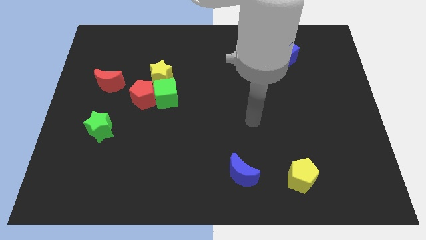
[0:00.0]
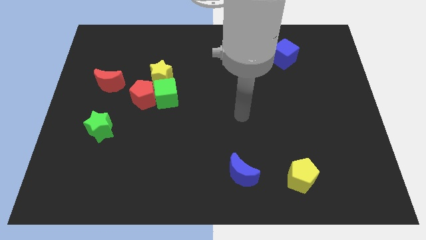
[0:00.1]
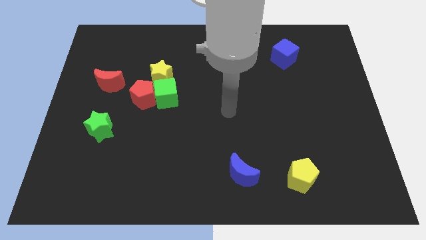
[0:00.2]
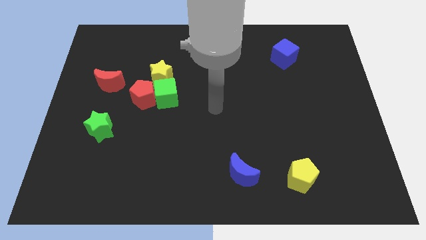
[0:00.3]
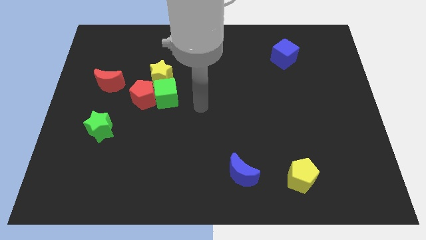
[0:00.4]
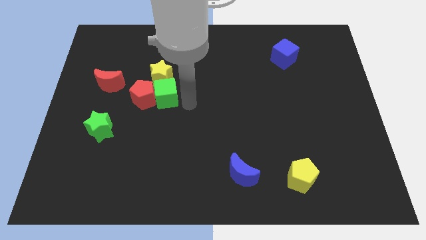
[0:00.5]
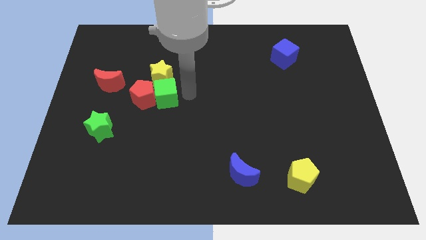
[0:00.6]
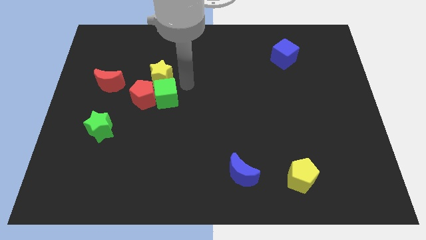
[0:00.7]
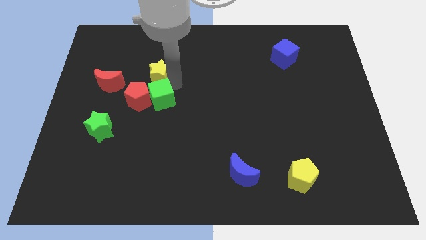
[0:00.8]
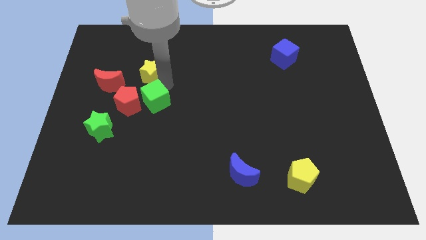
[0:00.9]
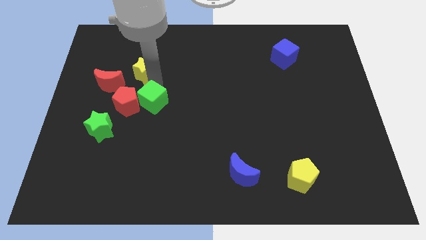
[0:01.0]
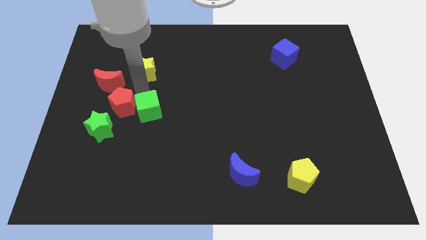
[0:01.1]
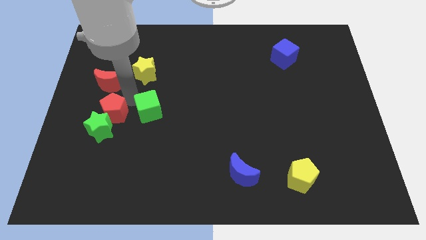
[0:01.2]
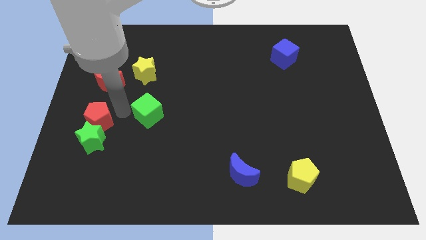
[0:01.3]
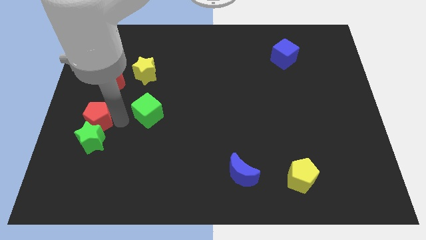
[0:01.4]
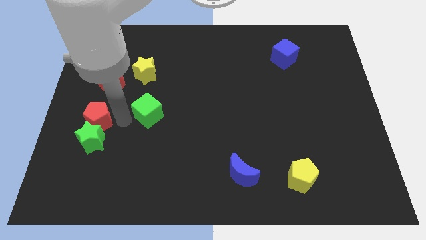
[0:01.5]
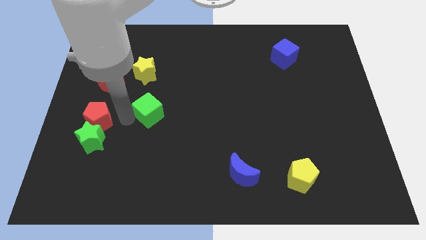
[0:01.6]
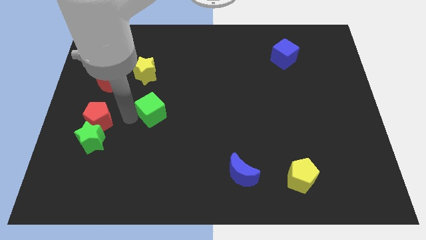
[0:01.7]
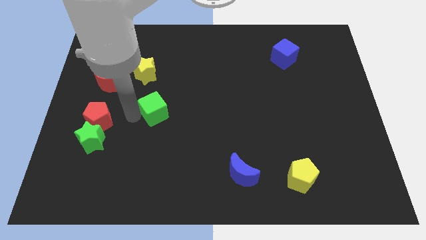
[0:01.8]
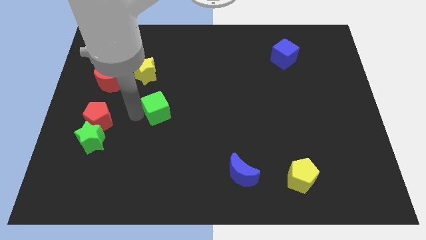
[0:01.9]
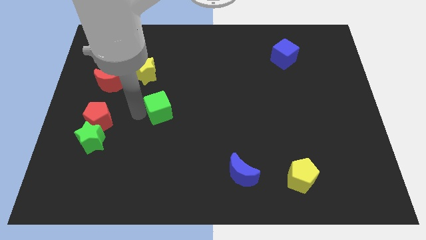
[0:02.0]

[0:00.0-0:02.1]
separate the green cube from the red pentagon and yellow star

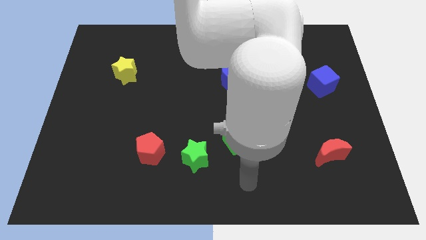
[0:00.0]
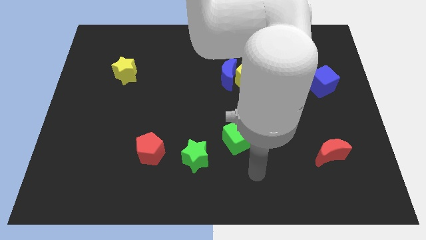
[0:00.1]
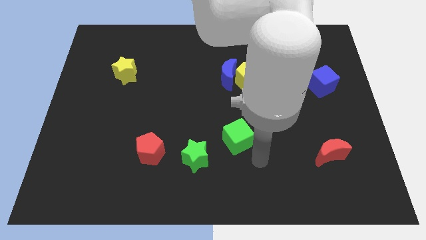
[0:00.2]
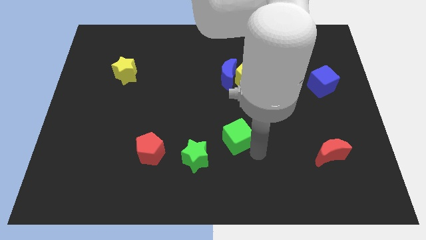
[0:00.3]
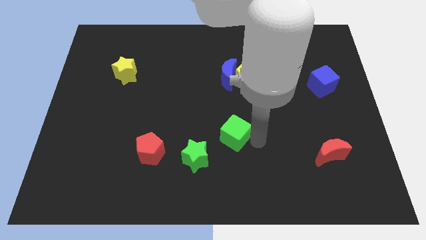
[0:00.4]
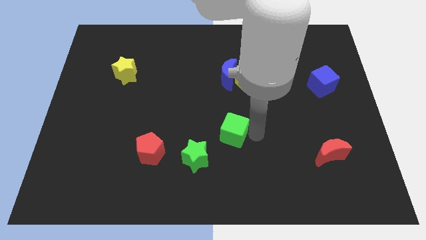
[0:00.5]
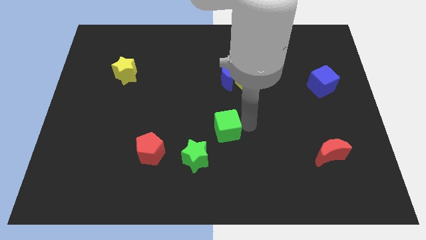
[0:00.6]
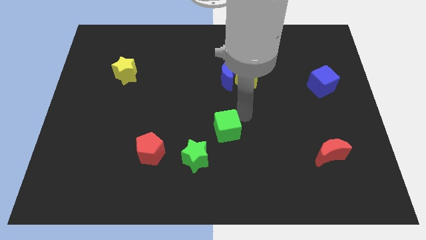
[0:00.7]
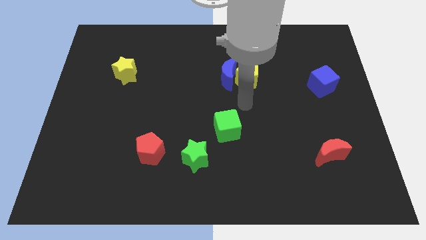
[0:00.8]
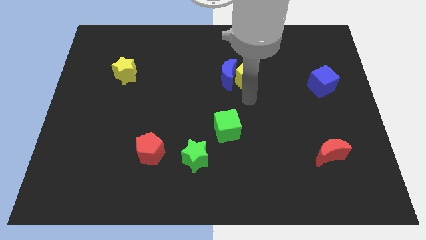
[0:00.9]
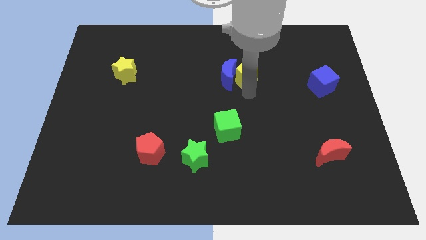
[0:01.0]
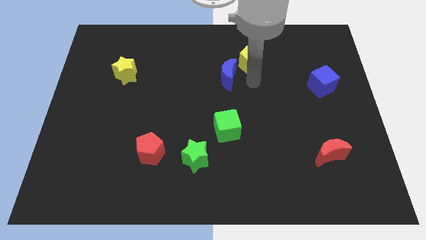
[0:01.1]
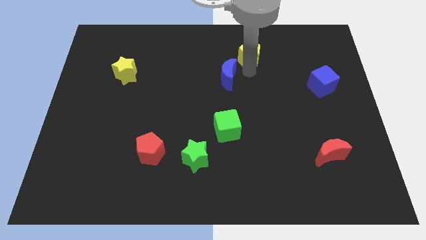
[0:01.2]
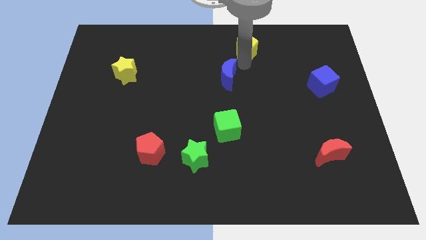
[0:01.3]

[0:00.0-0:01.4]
pull the blue moon apart from the yellow pentagon

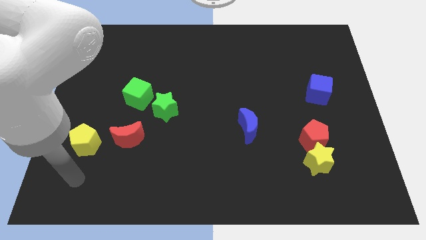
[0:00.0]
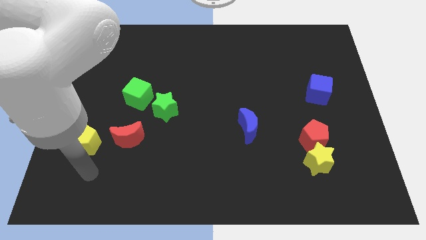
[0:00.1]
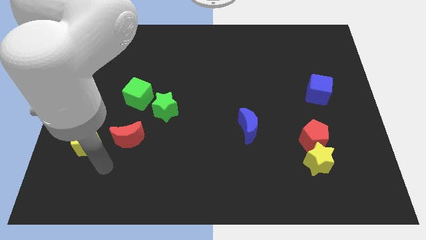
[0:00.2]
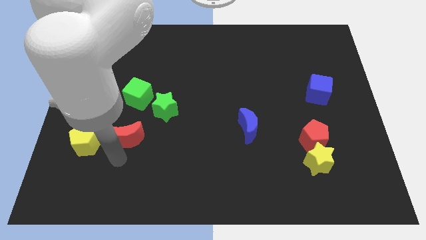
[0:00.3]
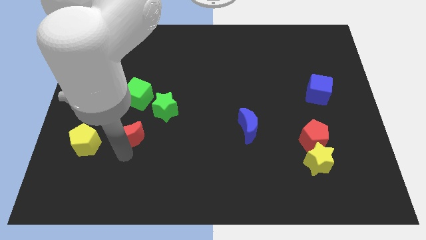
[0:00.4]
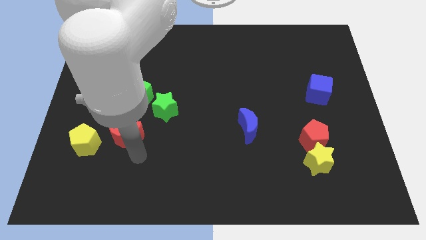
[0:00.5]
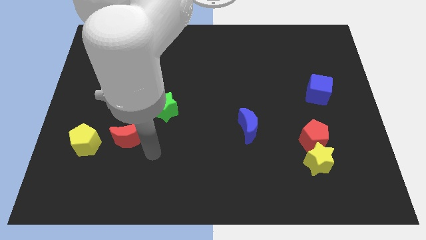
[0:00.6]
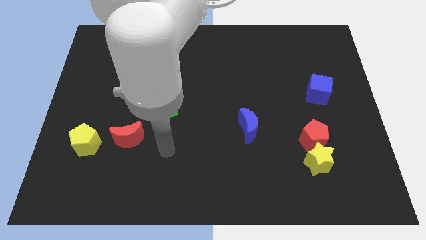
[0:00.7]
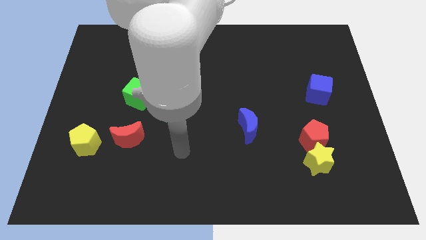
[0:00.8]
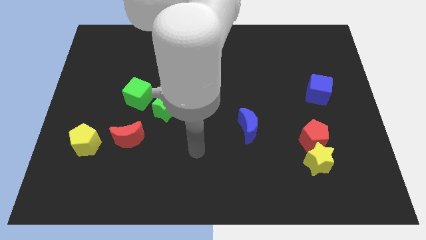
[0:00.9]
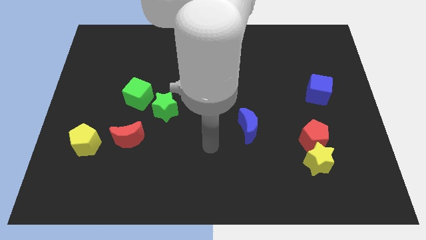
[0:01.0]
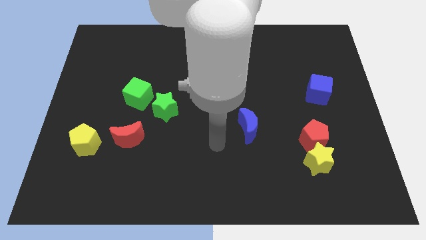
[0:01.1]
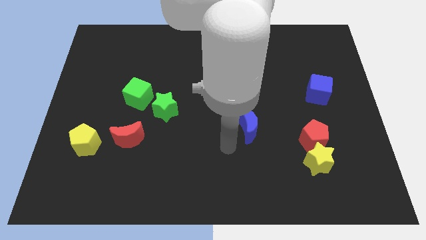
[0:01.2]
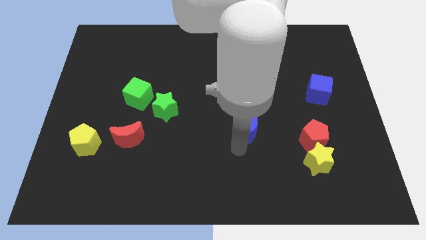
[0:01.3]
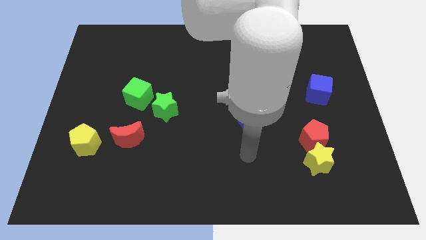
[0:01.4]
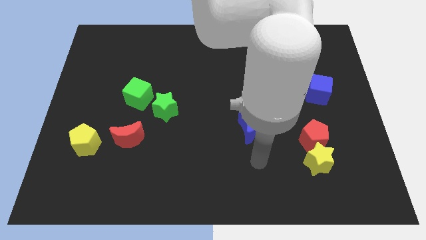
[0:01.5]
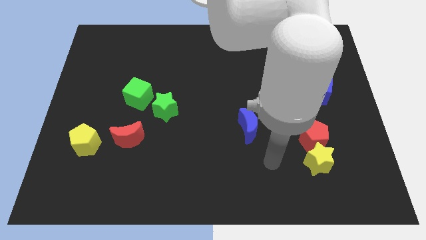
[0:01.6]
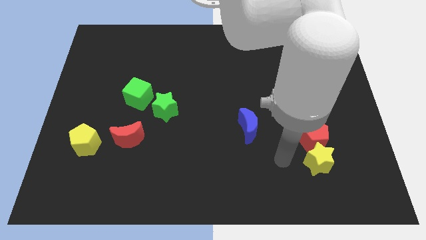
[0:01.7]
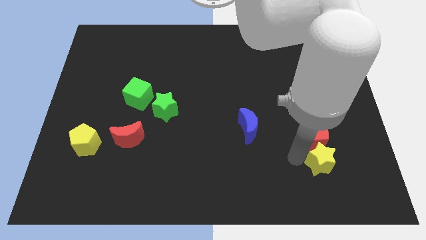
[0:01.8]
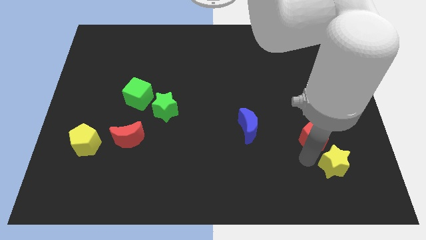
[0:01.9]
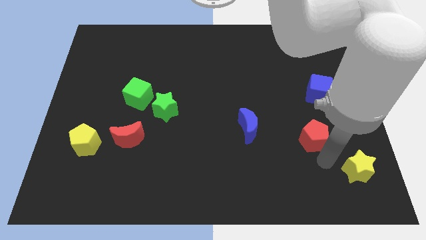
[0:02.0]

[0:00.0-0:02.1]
pull the red pentagon apart from the yellow star

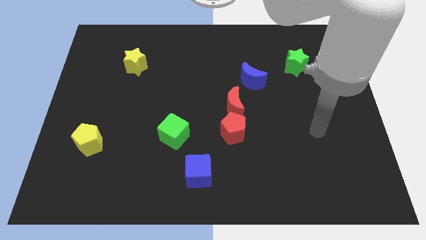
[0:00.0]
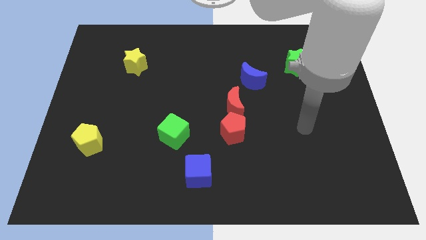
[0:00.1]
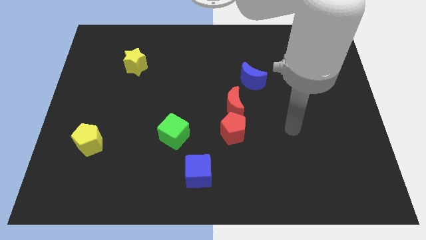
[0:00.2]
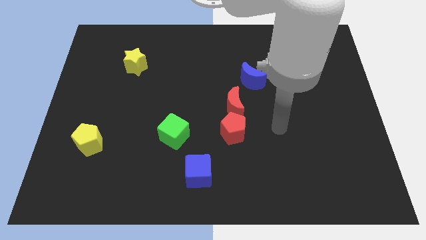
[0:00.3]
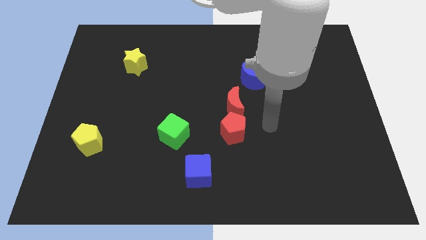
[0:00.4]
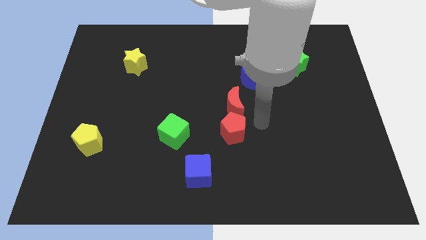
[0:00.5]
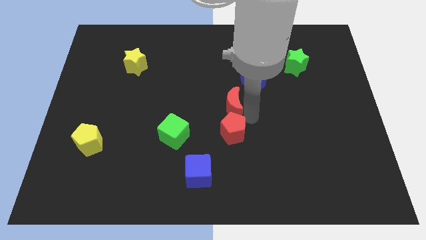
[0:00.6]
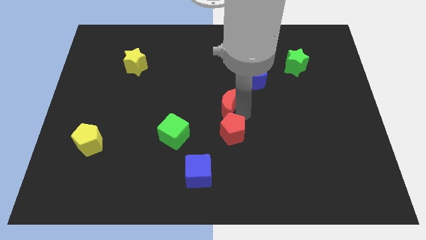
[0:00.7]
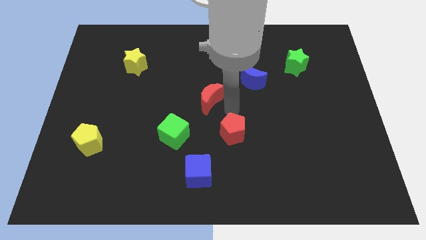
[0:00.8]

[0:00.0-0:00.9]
move the red pentagon away from the red moon

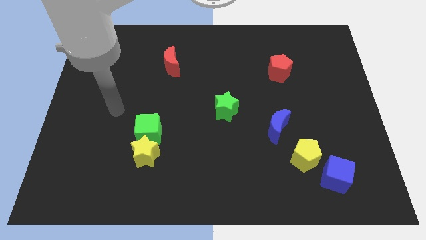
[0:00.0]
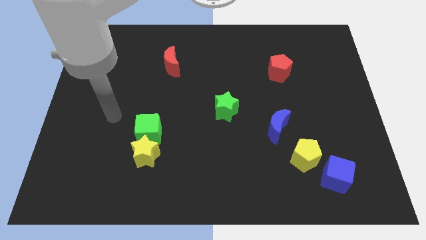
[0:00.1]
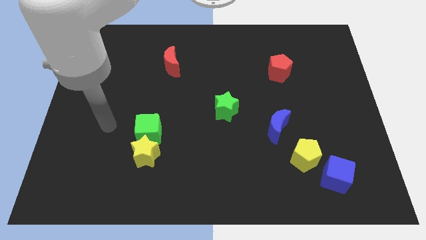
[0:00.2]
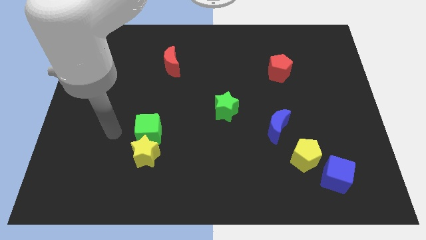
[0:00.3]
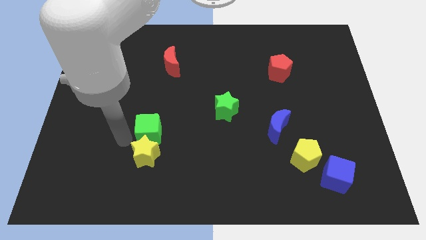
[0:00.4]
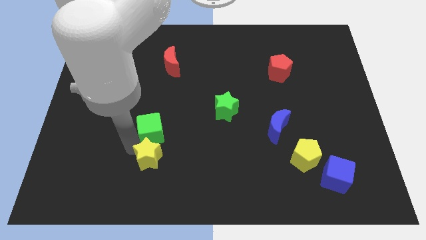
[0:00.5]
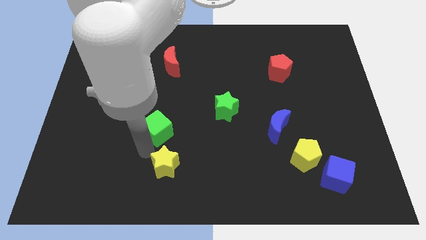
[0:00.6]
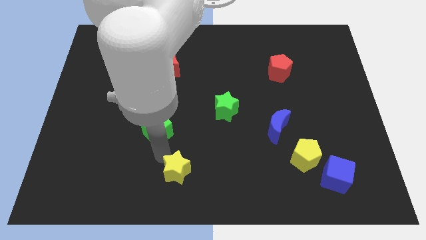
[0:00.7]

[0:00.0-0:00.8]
pull the green cube apart from the yellow star

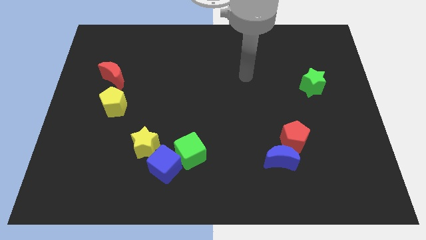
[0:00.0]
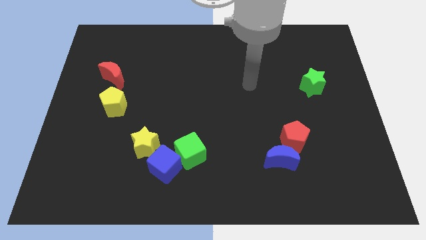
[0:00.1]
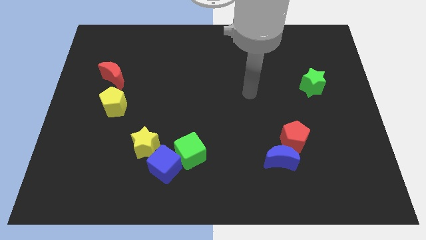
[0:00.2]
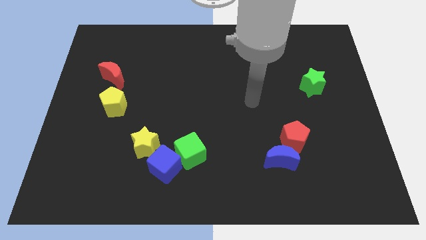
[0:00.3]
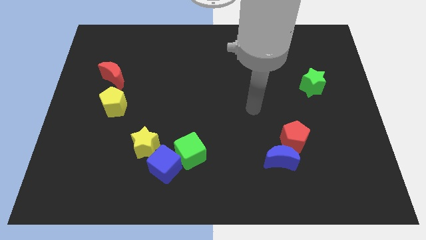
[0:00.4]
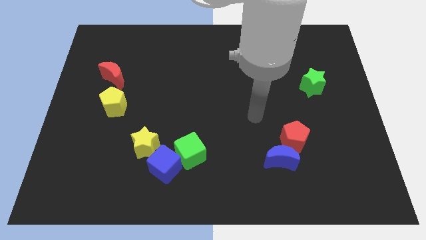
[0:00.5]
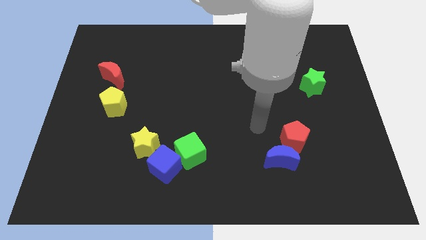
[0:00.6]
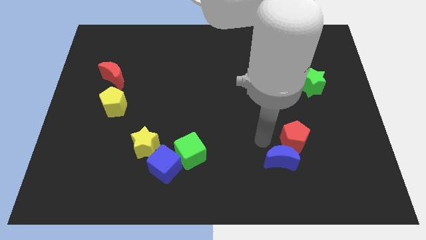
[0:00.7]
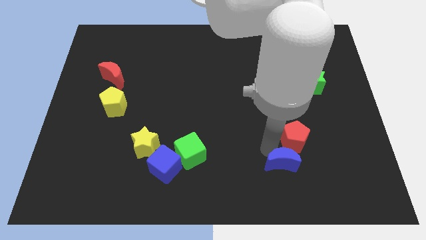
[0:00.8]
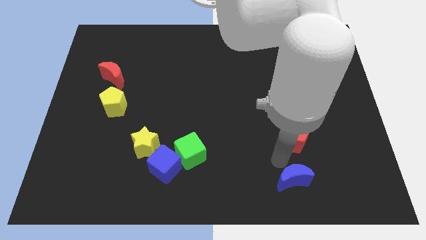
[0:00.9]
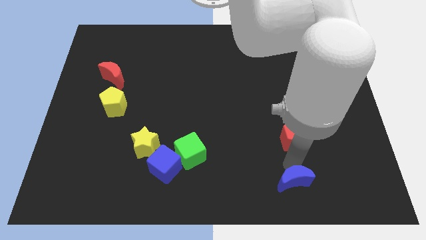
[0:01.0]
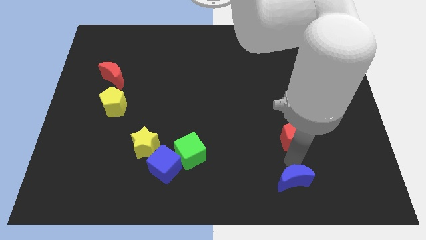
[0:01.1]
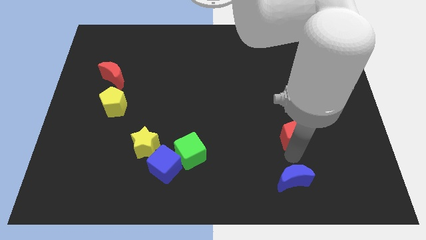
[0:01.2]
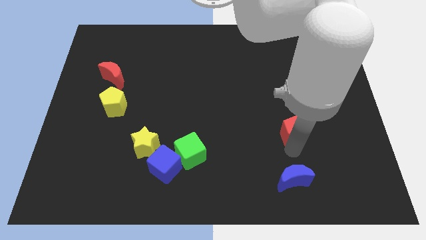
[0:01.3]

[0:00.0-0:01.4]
pull the red pentagon apart from the blue moon

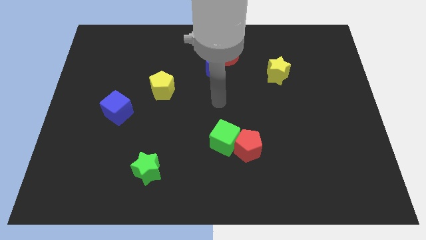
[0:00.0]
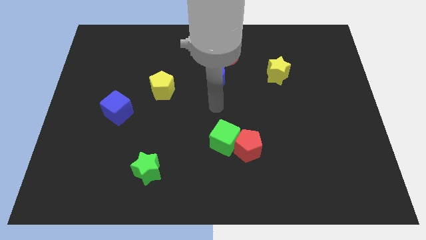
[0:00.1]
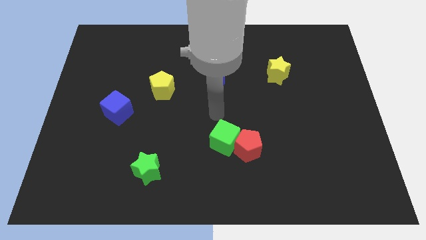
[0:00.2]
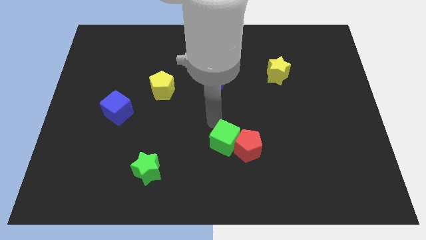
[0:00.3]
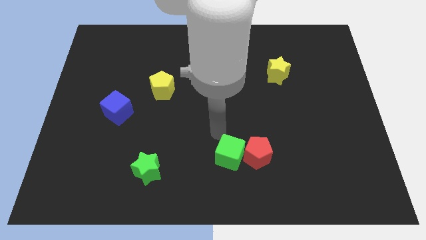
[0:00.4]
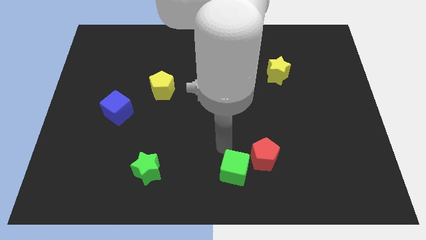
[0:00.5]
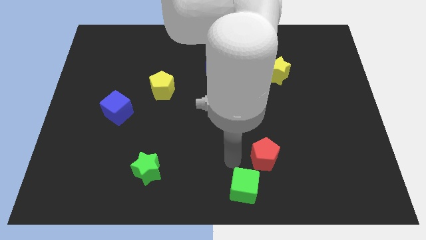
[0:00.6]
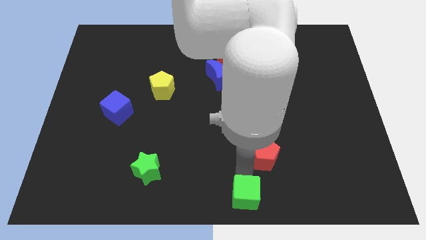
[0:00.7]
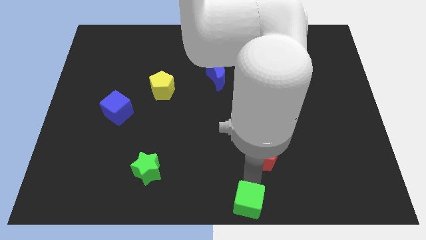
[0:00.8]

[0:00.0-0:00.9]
separate the red pentagon from the green cube
